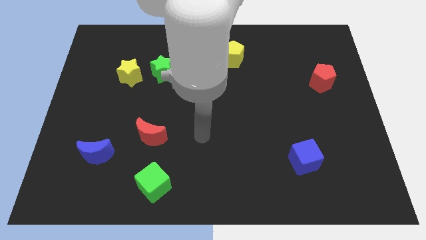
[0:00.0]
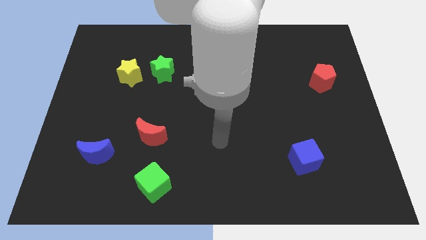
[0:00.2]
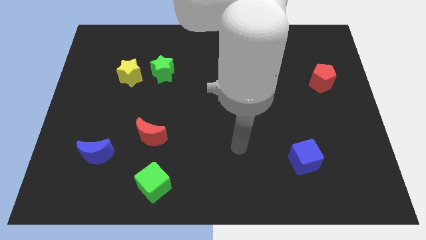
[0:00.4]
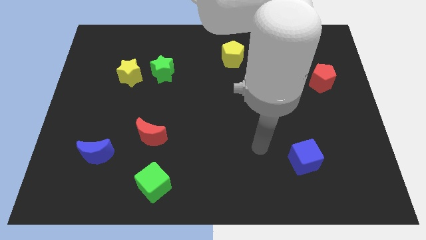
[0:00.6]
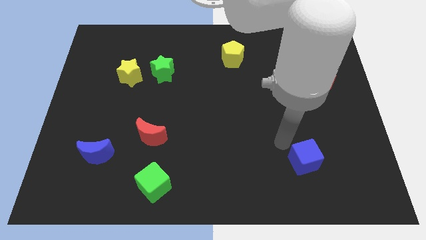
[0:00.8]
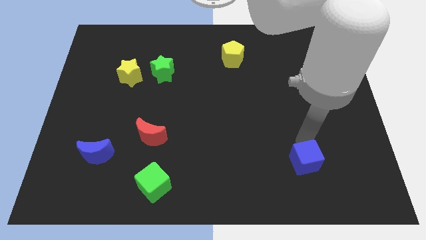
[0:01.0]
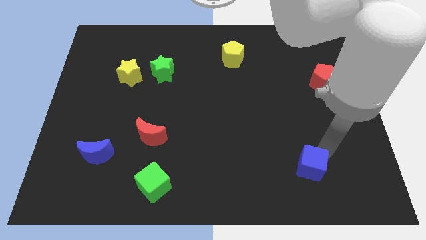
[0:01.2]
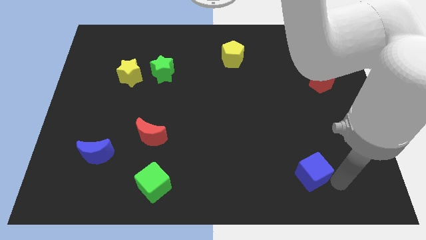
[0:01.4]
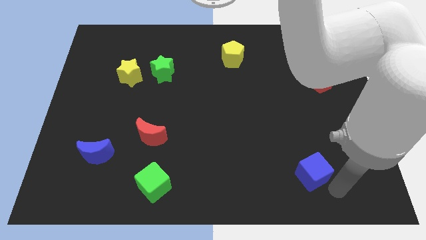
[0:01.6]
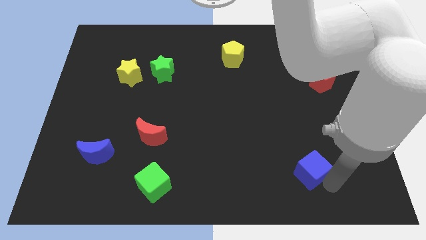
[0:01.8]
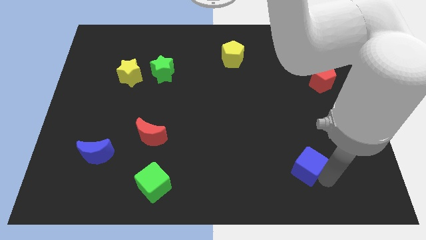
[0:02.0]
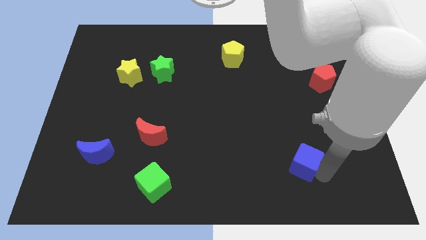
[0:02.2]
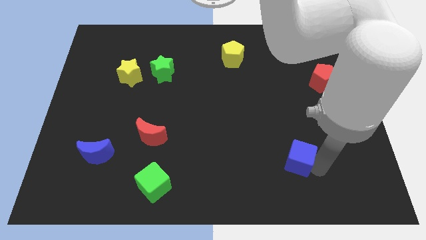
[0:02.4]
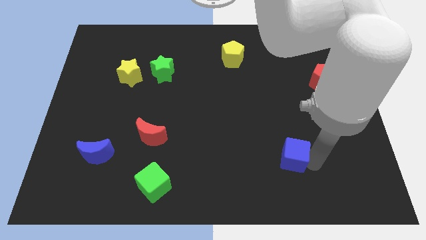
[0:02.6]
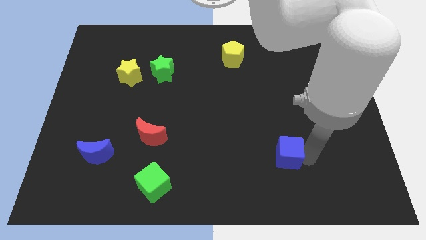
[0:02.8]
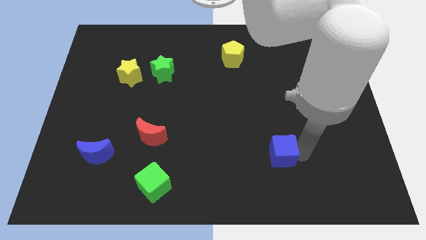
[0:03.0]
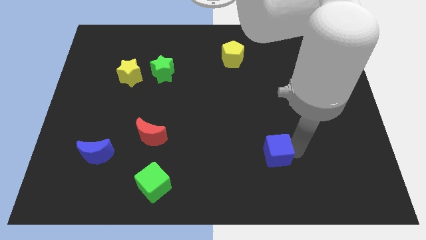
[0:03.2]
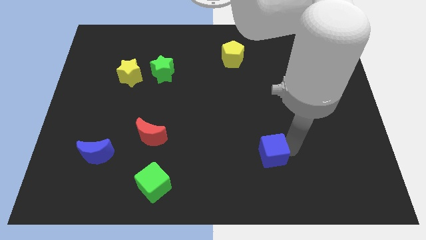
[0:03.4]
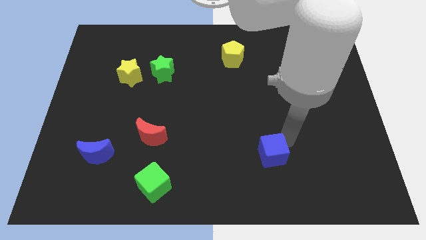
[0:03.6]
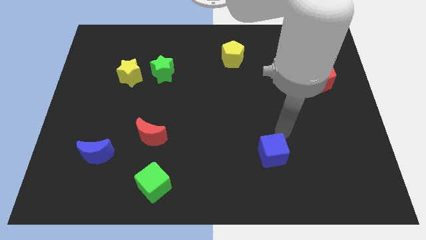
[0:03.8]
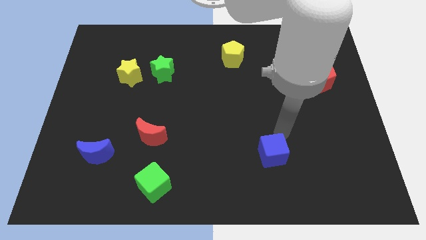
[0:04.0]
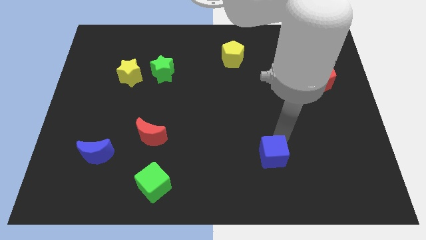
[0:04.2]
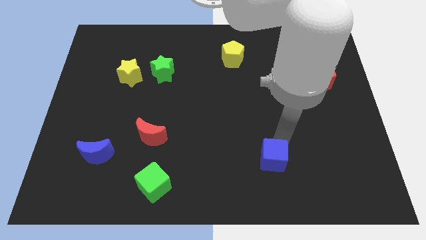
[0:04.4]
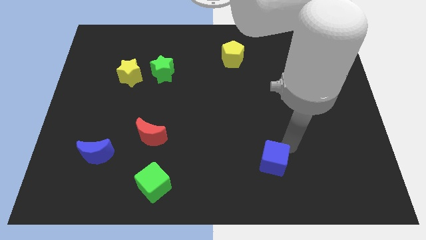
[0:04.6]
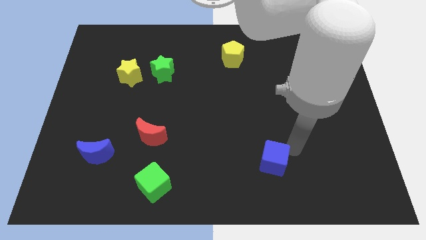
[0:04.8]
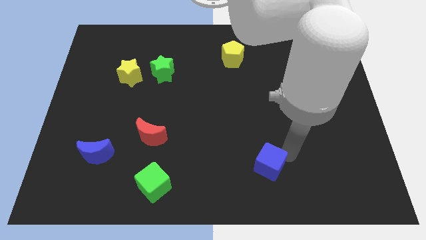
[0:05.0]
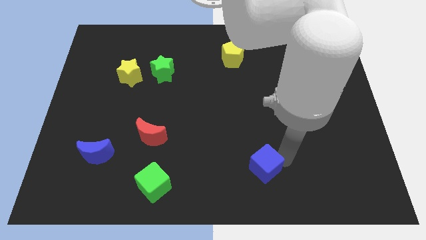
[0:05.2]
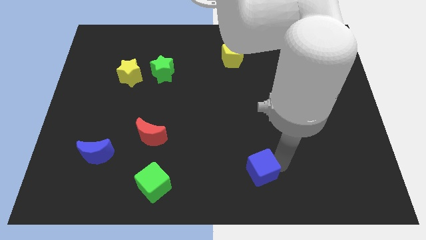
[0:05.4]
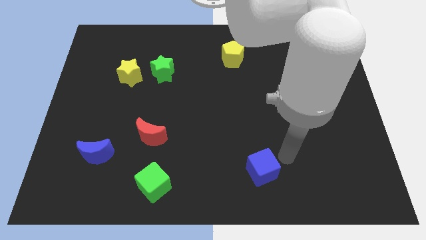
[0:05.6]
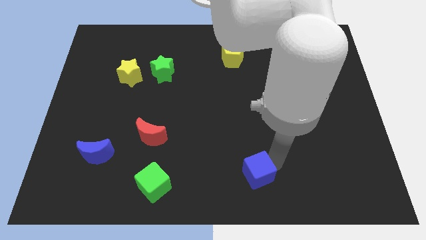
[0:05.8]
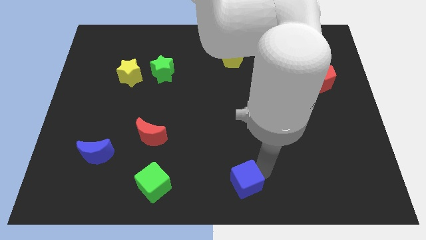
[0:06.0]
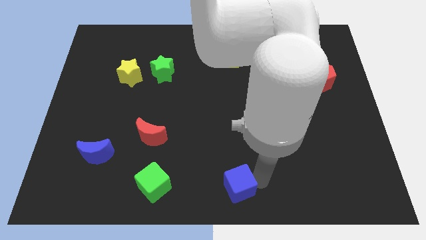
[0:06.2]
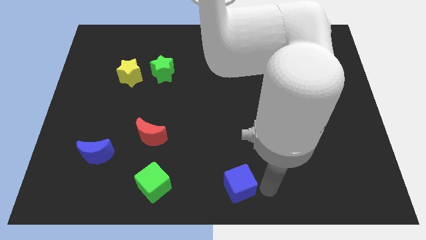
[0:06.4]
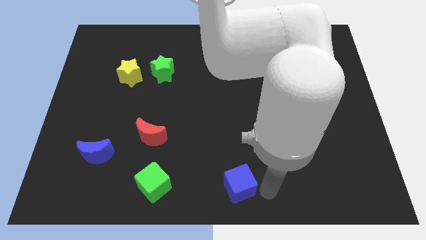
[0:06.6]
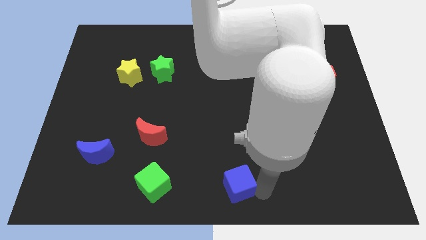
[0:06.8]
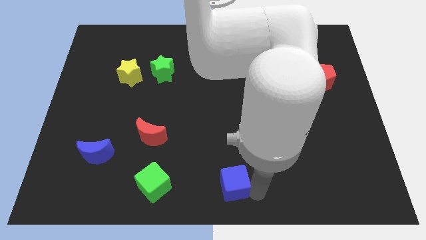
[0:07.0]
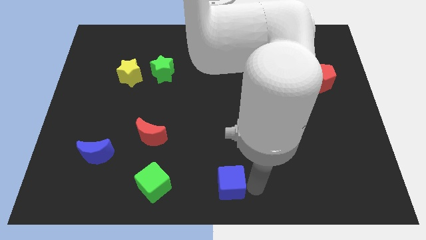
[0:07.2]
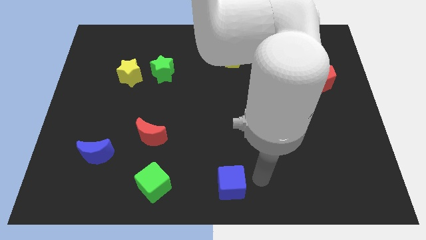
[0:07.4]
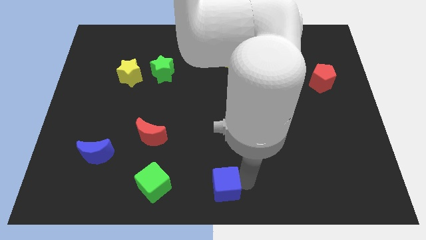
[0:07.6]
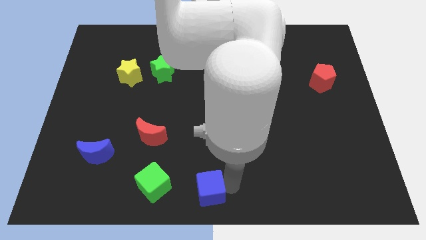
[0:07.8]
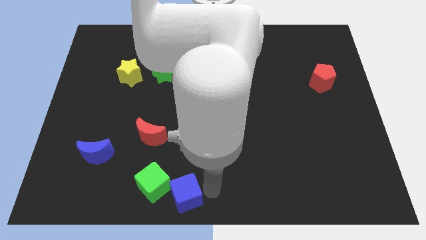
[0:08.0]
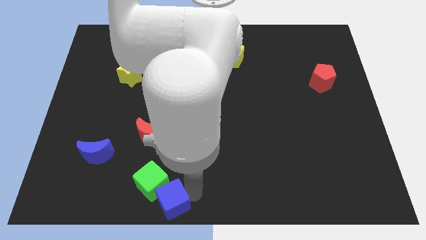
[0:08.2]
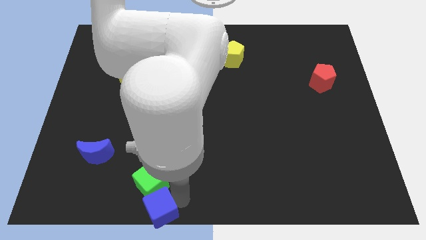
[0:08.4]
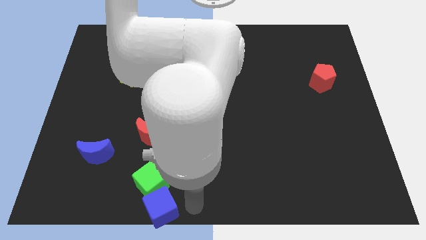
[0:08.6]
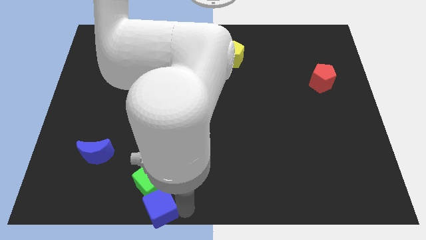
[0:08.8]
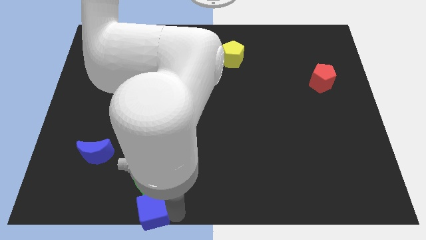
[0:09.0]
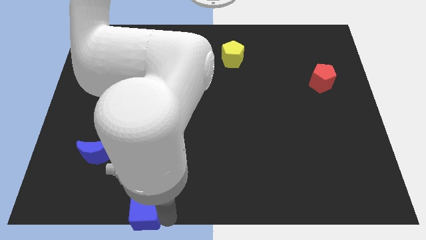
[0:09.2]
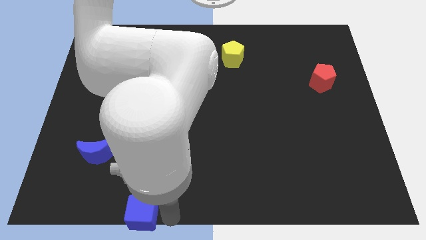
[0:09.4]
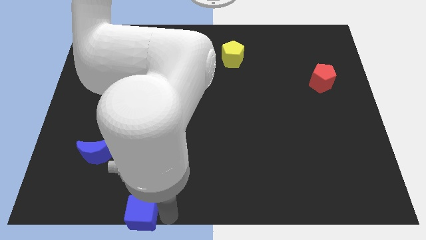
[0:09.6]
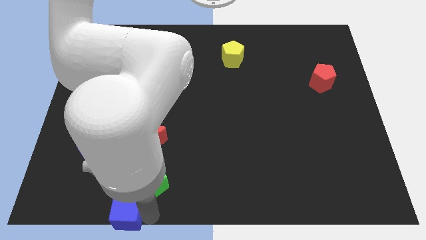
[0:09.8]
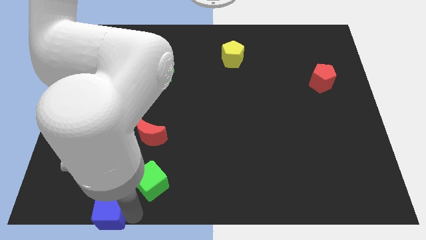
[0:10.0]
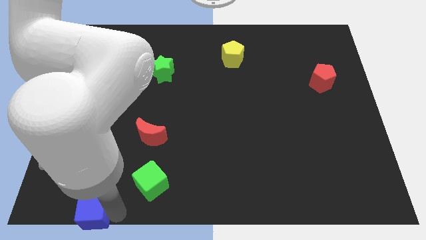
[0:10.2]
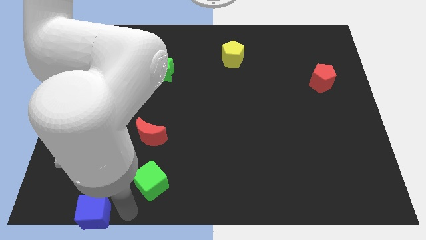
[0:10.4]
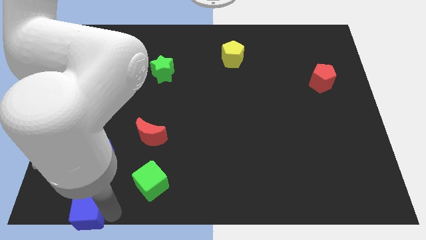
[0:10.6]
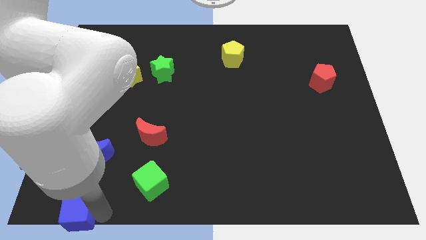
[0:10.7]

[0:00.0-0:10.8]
push the blue cube to the bottom left
